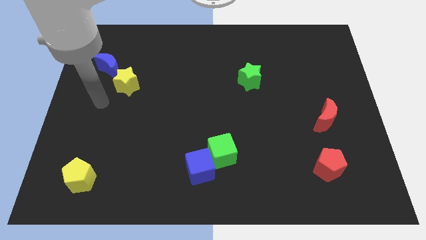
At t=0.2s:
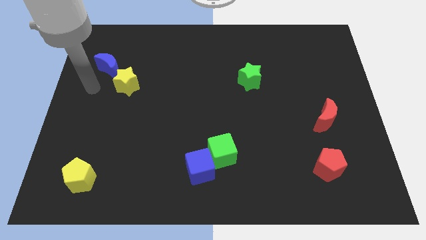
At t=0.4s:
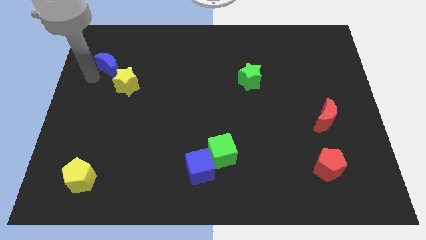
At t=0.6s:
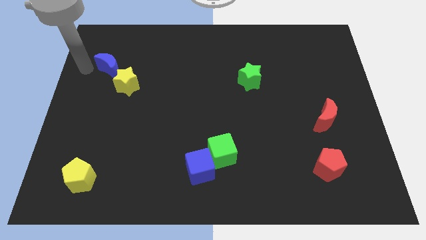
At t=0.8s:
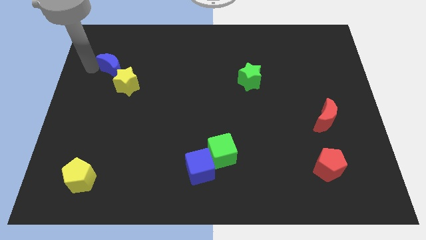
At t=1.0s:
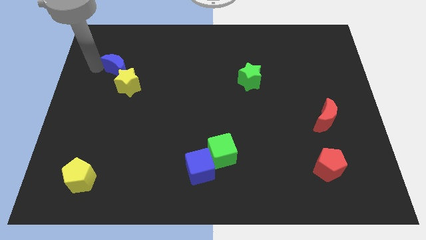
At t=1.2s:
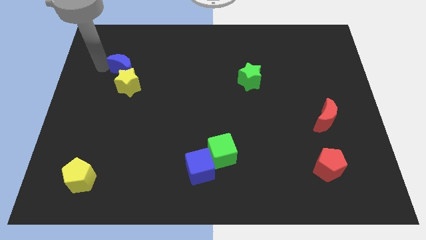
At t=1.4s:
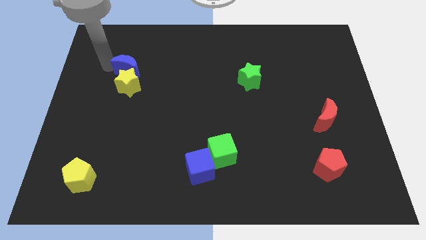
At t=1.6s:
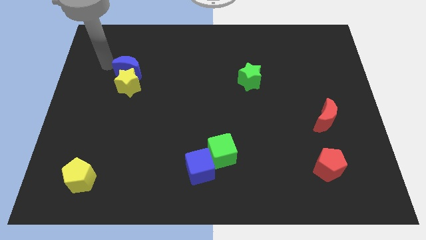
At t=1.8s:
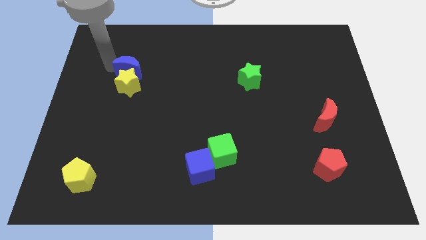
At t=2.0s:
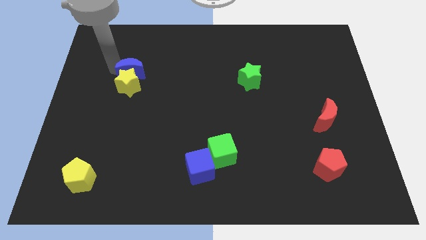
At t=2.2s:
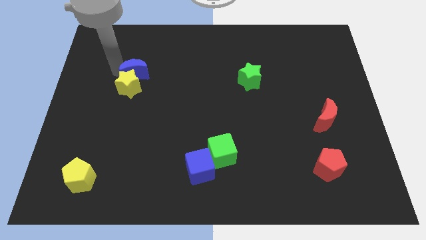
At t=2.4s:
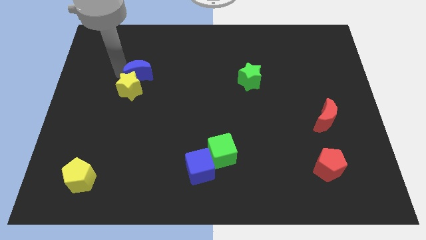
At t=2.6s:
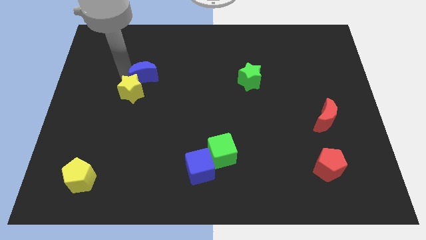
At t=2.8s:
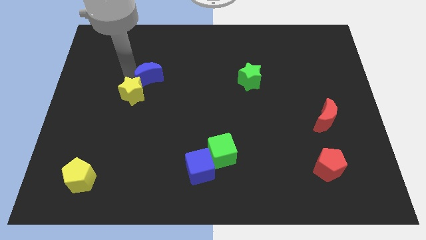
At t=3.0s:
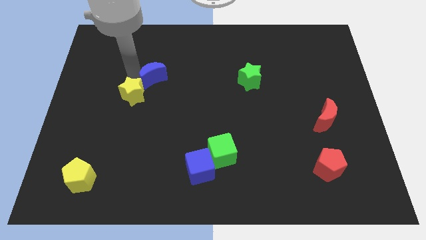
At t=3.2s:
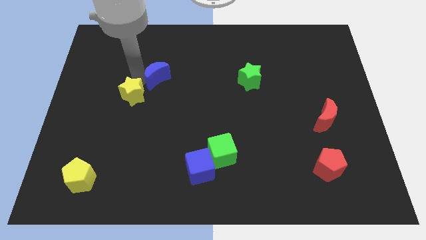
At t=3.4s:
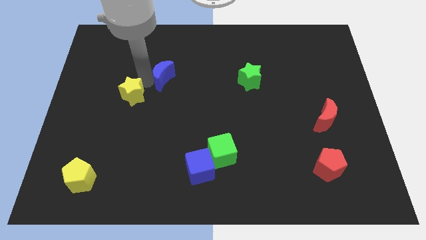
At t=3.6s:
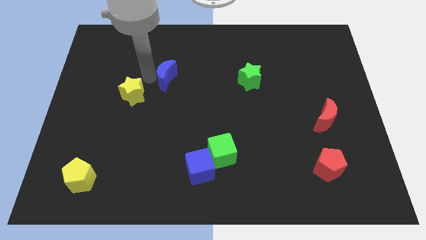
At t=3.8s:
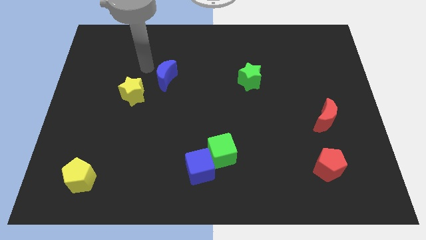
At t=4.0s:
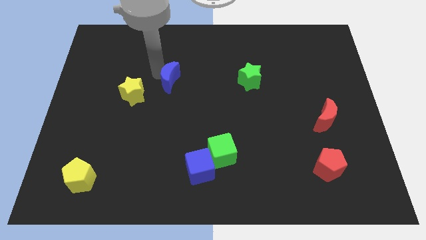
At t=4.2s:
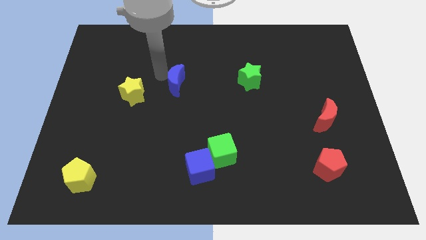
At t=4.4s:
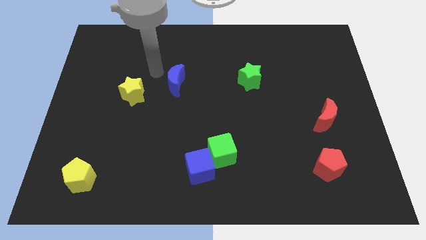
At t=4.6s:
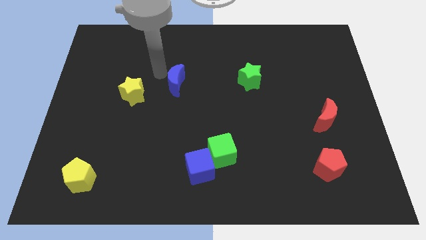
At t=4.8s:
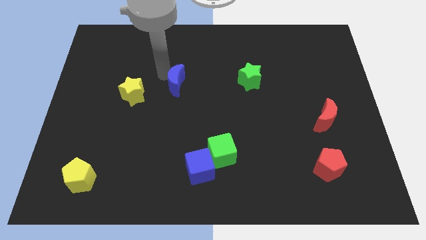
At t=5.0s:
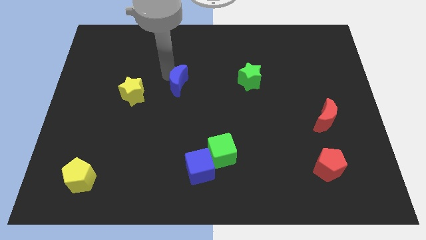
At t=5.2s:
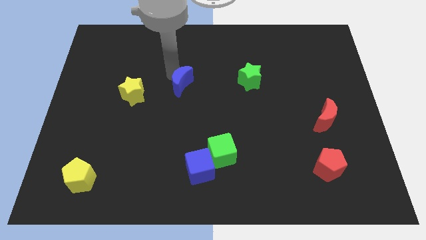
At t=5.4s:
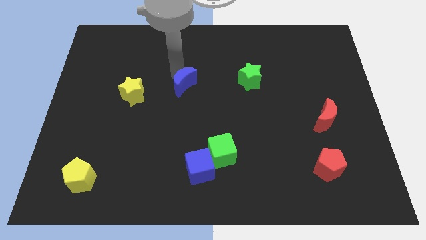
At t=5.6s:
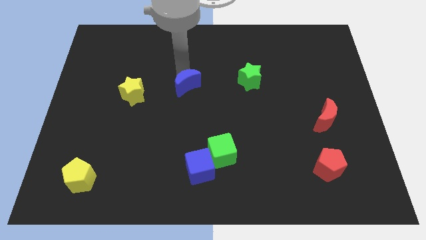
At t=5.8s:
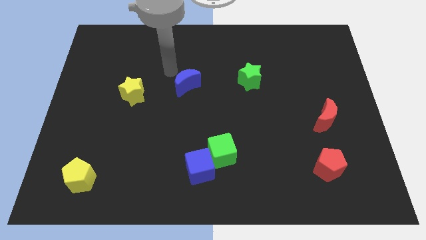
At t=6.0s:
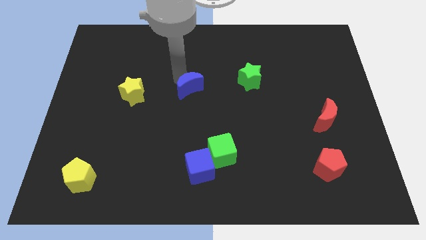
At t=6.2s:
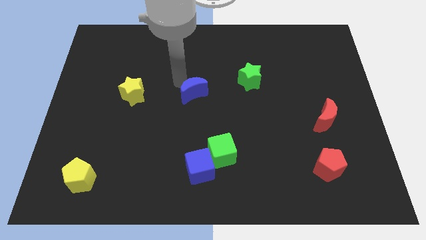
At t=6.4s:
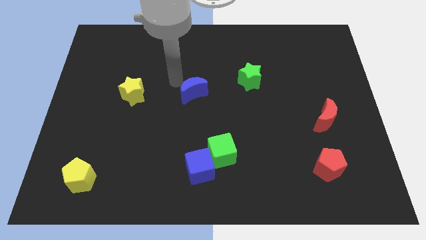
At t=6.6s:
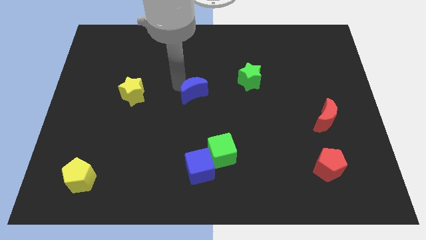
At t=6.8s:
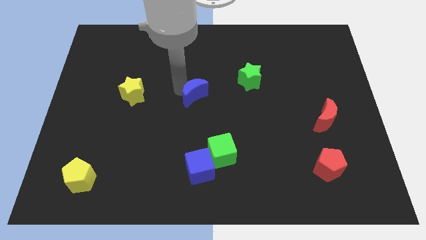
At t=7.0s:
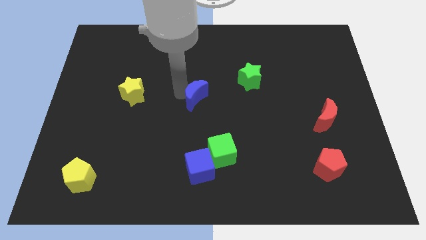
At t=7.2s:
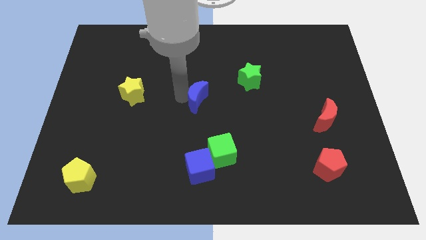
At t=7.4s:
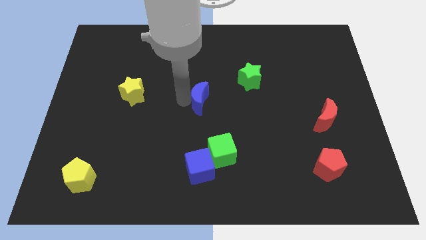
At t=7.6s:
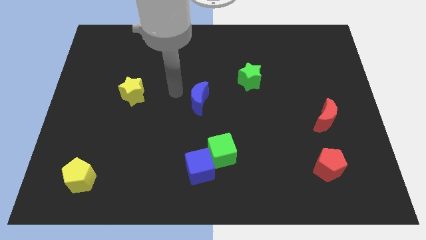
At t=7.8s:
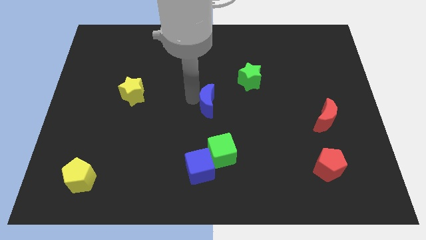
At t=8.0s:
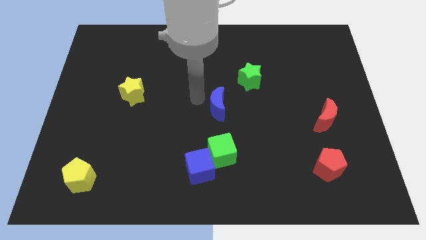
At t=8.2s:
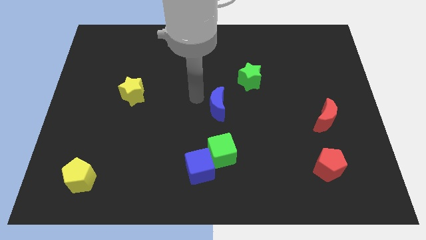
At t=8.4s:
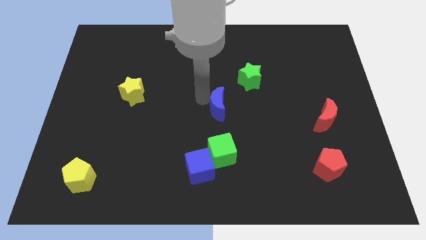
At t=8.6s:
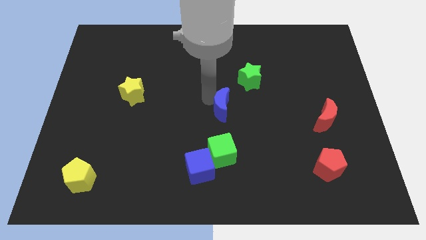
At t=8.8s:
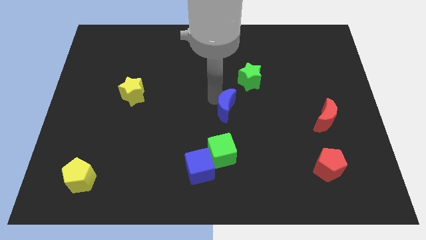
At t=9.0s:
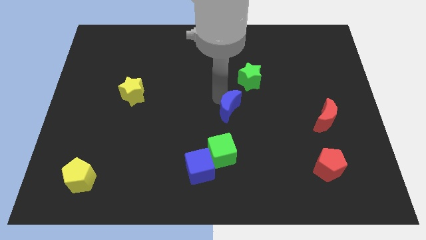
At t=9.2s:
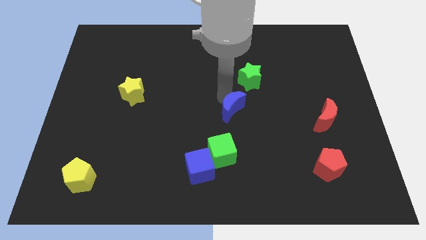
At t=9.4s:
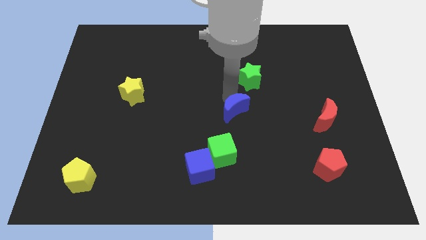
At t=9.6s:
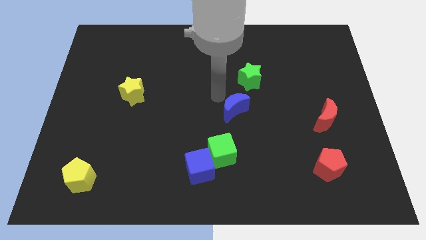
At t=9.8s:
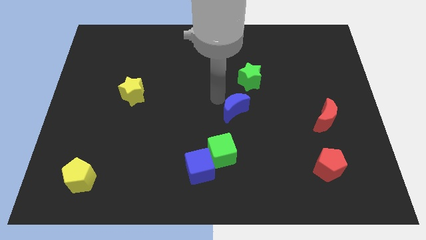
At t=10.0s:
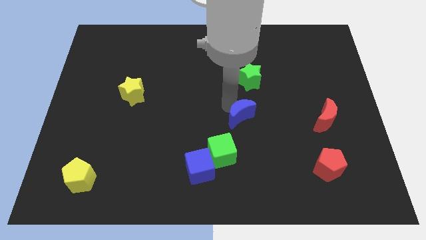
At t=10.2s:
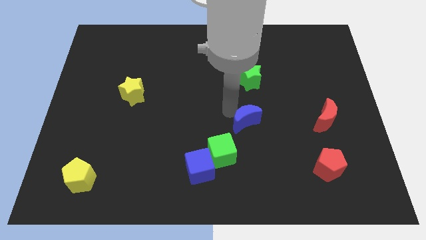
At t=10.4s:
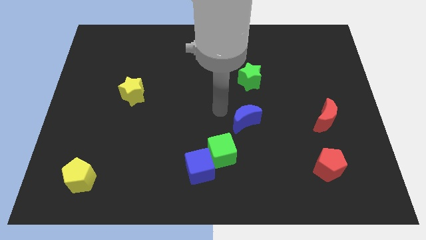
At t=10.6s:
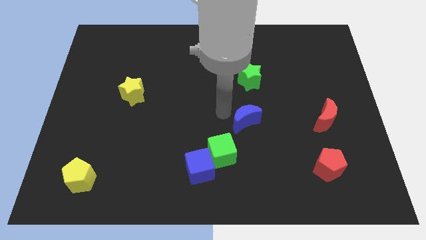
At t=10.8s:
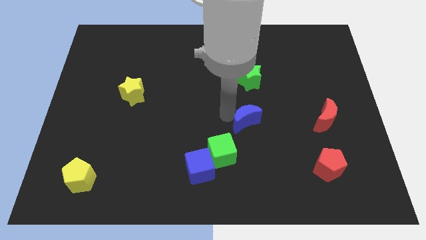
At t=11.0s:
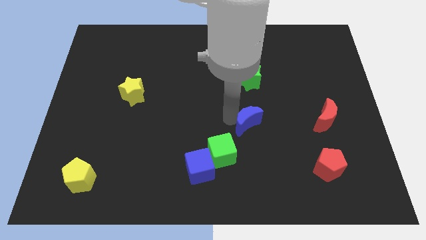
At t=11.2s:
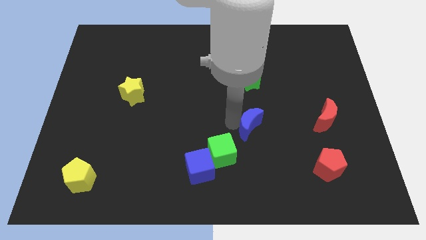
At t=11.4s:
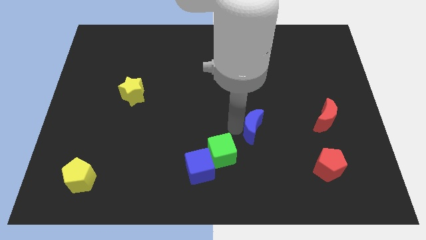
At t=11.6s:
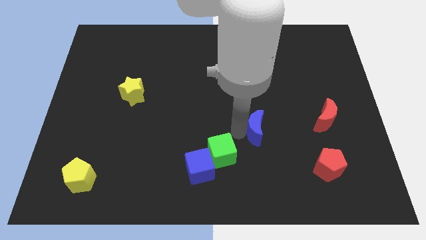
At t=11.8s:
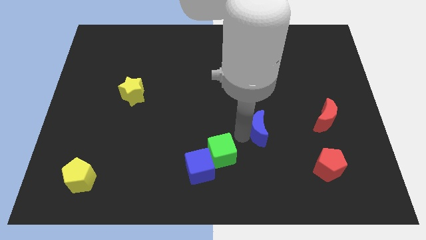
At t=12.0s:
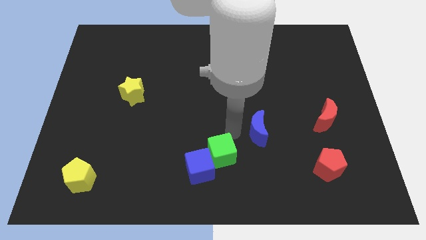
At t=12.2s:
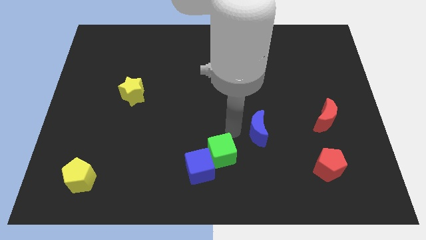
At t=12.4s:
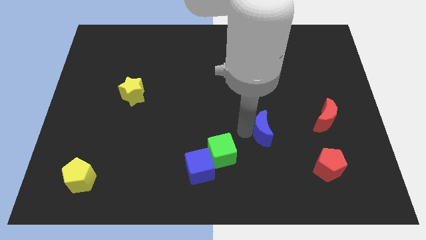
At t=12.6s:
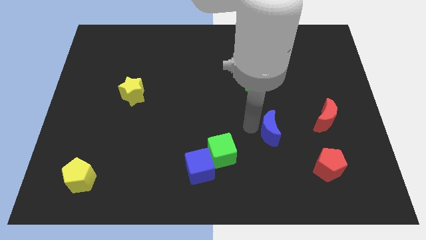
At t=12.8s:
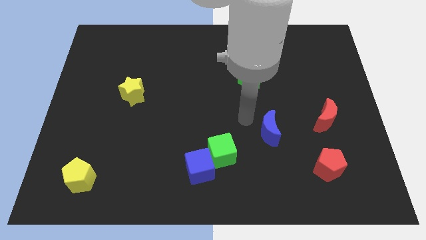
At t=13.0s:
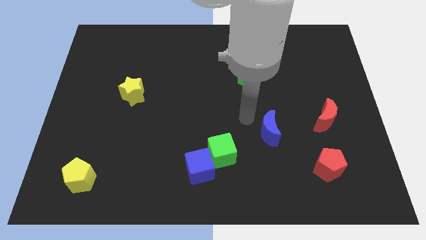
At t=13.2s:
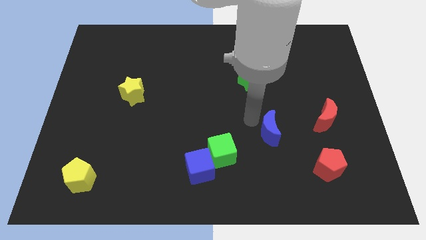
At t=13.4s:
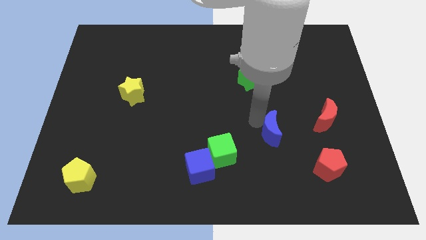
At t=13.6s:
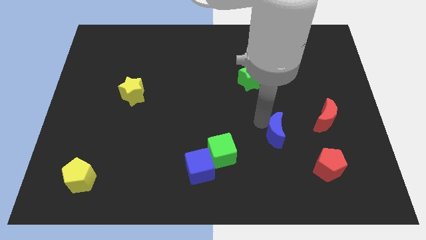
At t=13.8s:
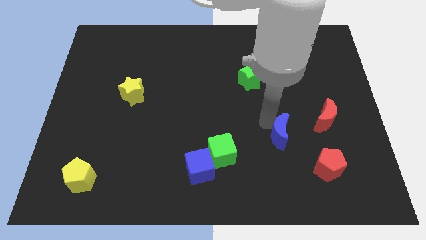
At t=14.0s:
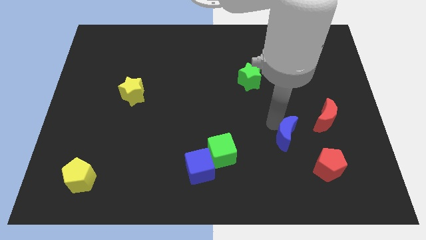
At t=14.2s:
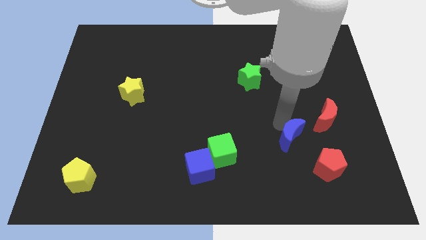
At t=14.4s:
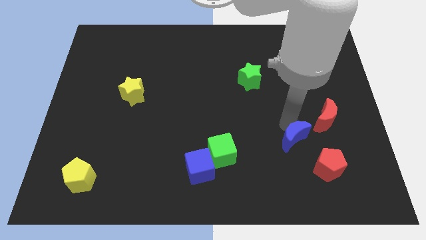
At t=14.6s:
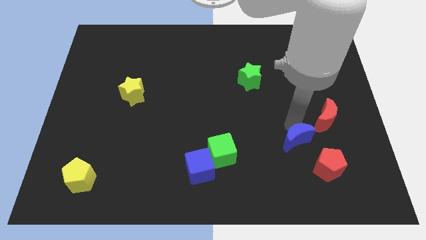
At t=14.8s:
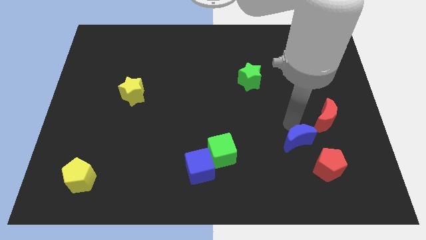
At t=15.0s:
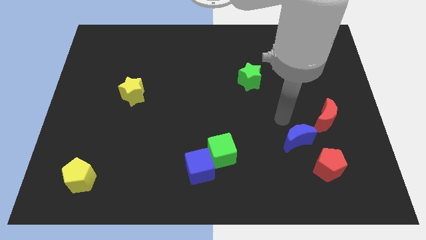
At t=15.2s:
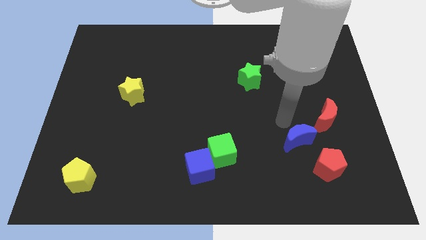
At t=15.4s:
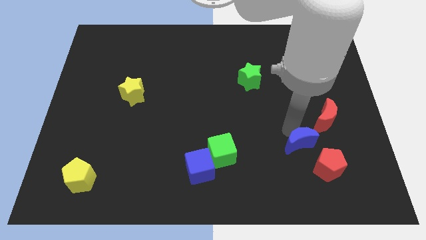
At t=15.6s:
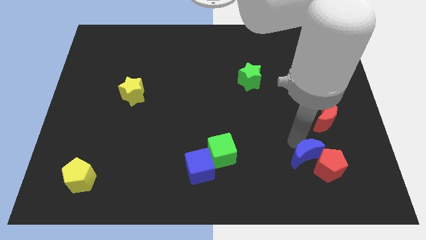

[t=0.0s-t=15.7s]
slide the blue moon next to the red pentagon
